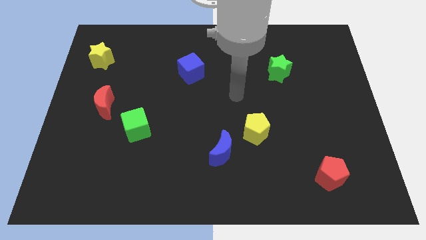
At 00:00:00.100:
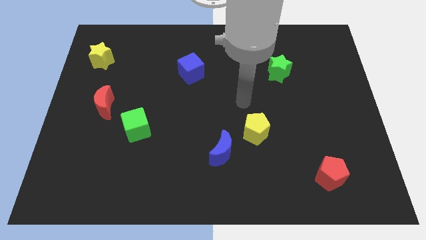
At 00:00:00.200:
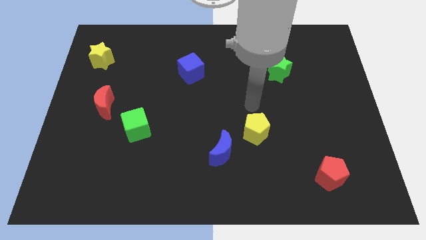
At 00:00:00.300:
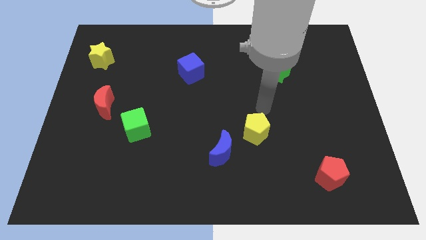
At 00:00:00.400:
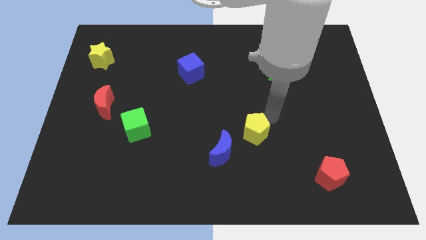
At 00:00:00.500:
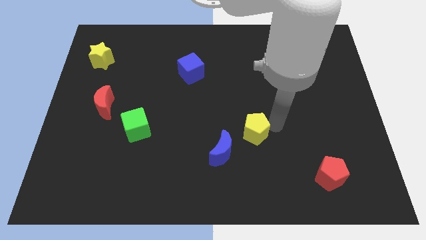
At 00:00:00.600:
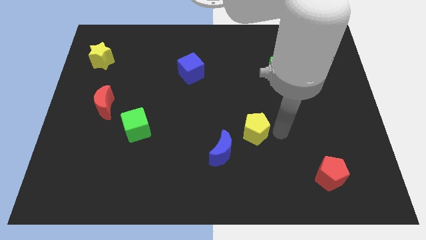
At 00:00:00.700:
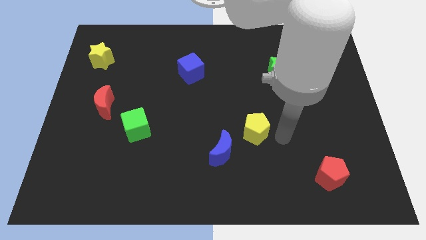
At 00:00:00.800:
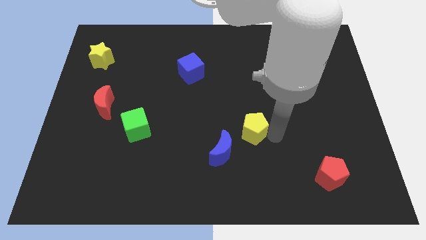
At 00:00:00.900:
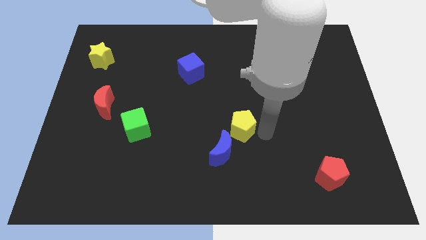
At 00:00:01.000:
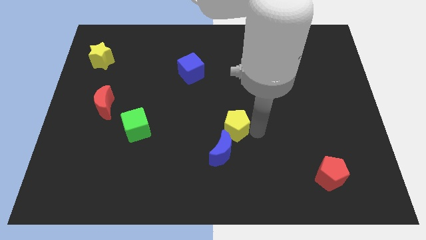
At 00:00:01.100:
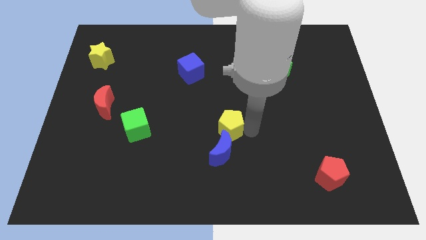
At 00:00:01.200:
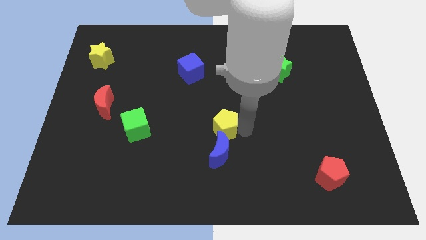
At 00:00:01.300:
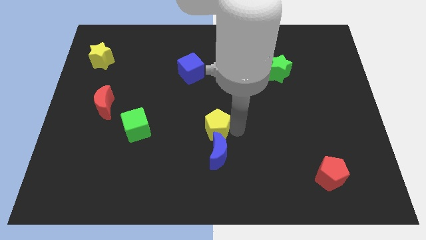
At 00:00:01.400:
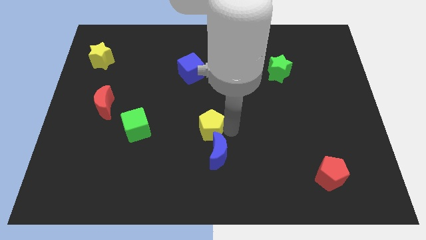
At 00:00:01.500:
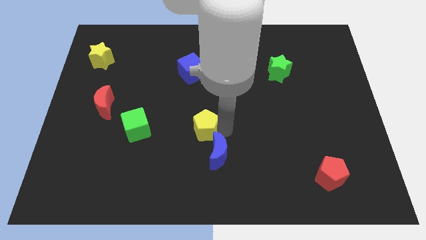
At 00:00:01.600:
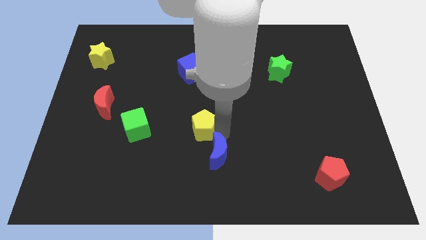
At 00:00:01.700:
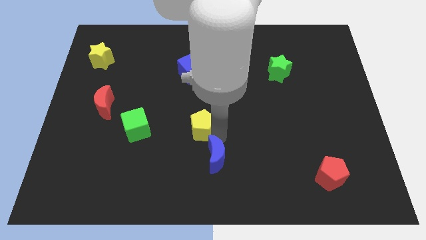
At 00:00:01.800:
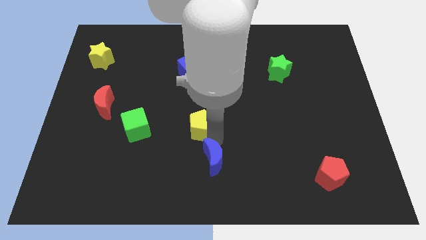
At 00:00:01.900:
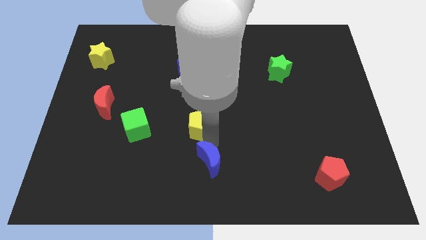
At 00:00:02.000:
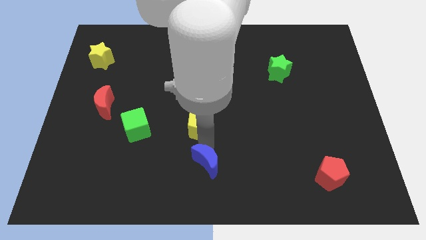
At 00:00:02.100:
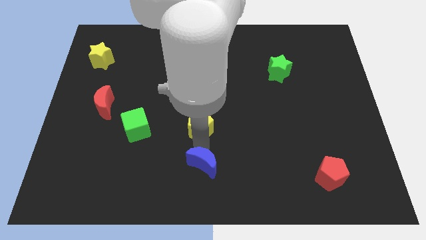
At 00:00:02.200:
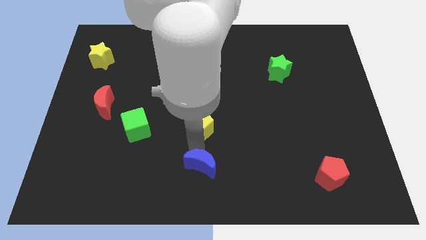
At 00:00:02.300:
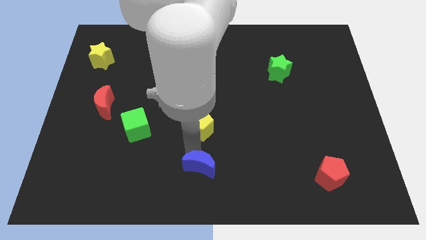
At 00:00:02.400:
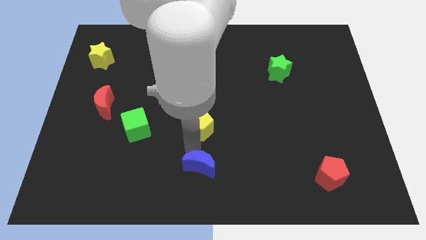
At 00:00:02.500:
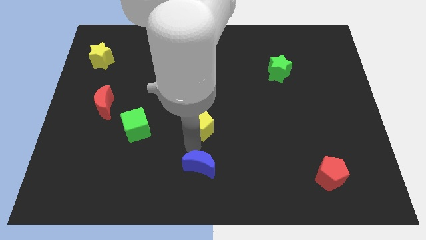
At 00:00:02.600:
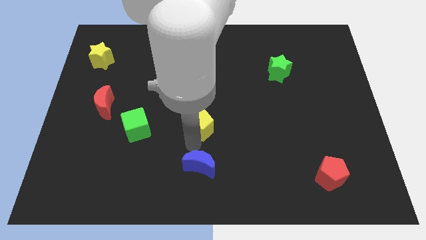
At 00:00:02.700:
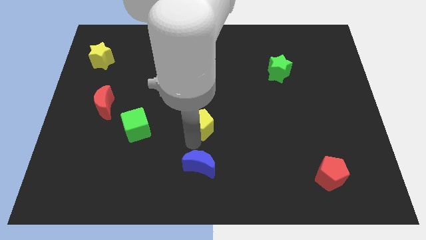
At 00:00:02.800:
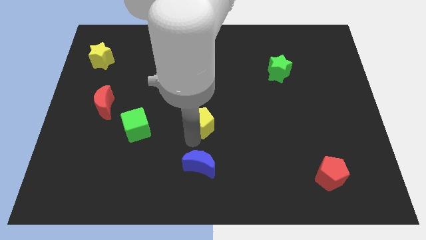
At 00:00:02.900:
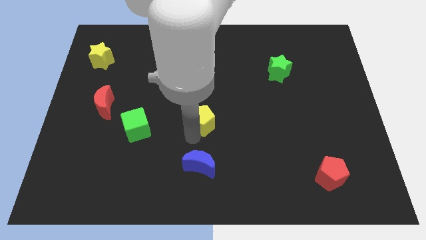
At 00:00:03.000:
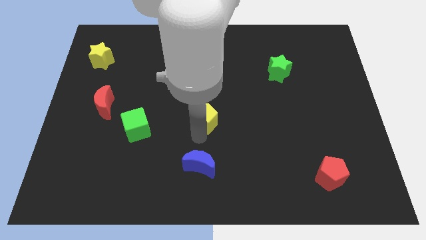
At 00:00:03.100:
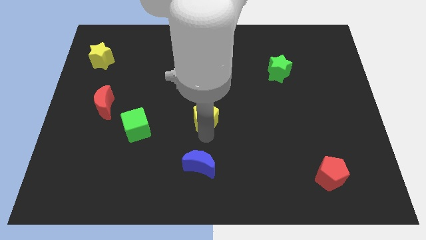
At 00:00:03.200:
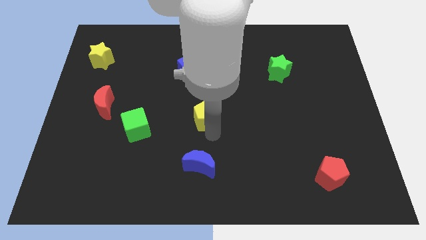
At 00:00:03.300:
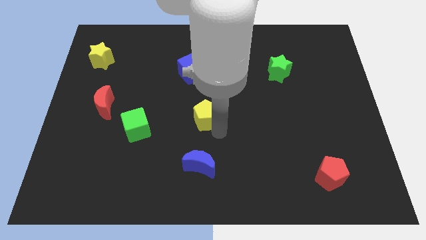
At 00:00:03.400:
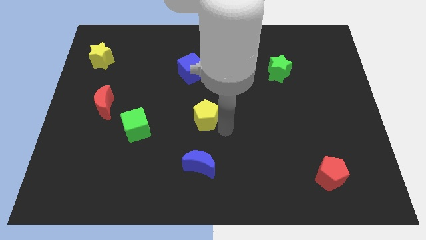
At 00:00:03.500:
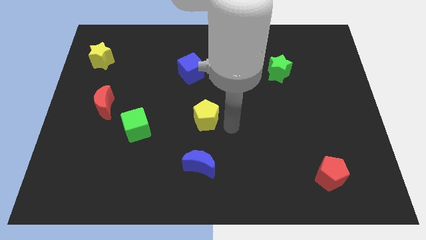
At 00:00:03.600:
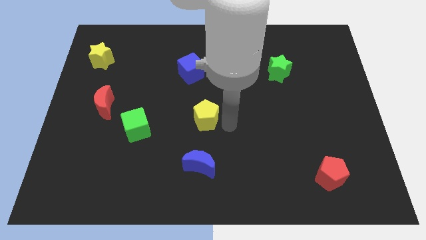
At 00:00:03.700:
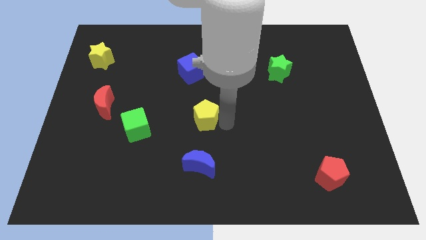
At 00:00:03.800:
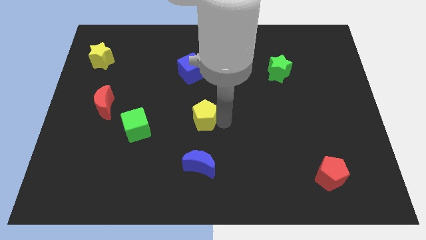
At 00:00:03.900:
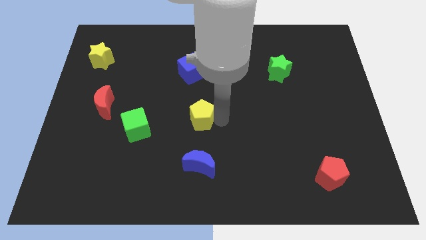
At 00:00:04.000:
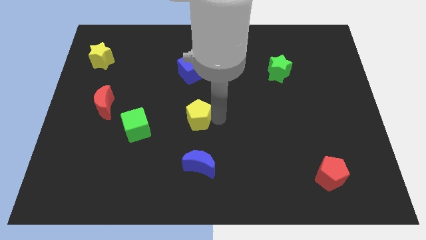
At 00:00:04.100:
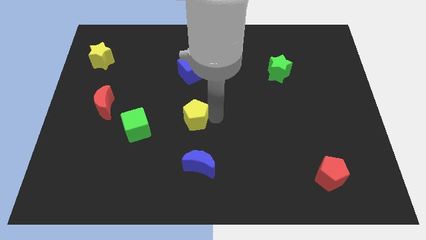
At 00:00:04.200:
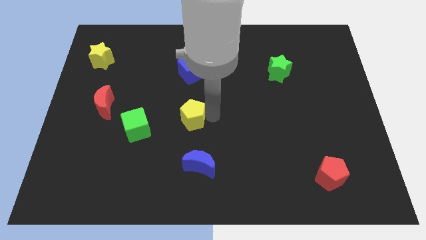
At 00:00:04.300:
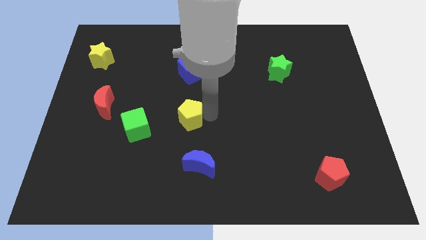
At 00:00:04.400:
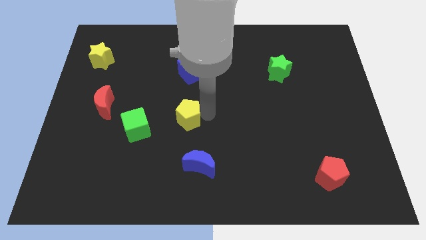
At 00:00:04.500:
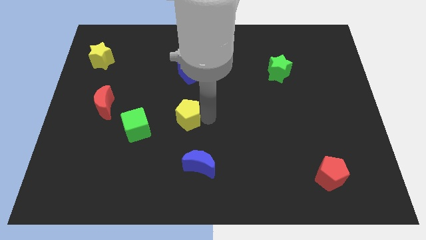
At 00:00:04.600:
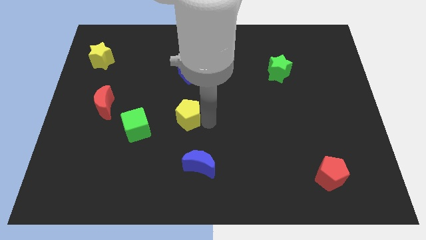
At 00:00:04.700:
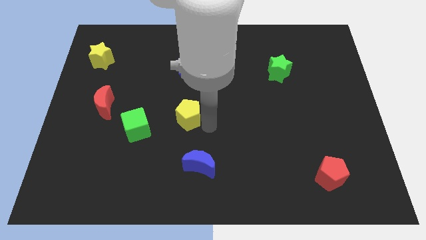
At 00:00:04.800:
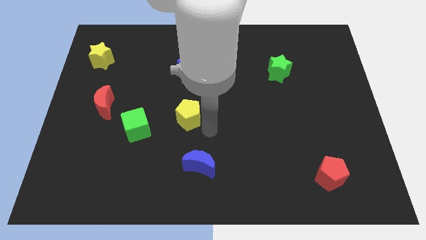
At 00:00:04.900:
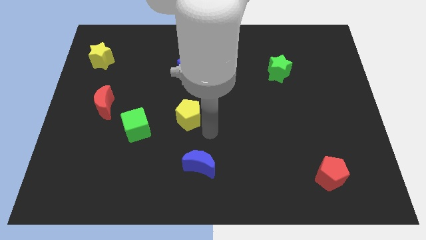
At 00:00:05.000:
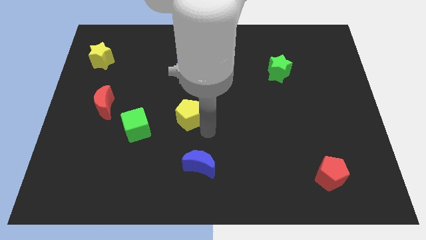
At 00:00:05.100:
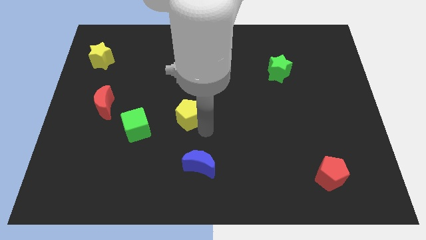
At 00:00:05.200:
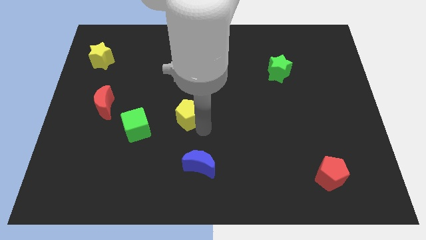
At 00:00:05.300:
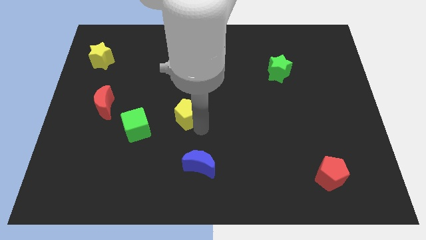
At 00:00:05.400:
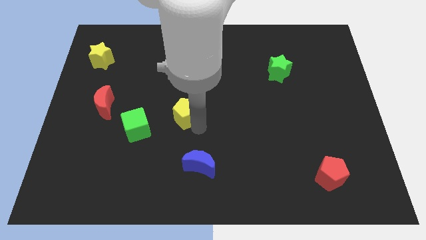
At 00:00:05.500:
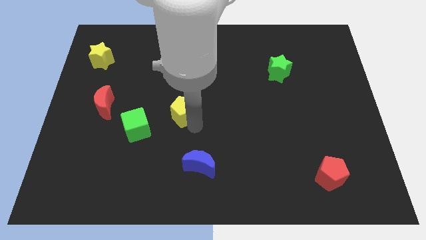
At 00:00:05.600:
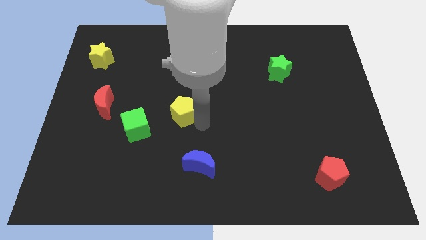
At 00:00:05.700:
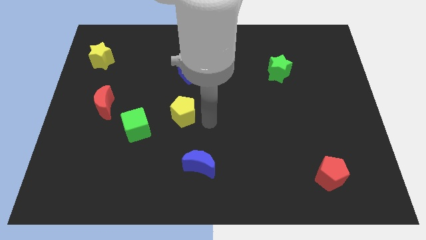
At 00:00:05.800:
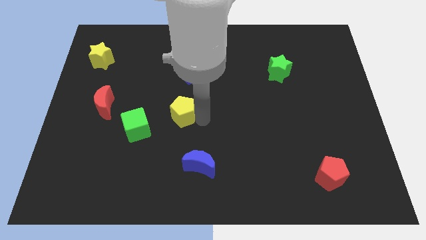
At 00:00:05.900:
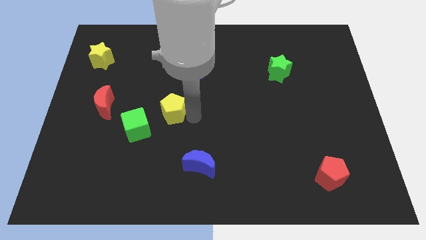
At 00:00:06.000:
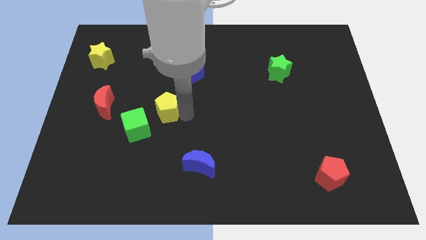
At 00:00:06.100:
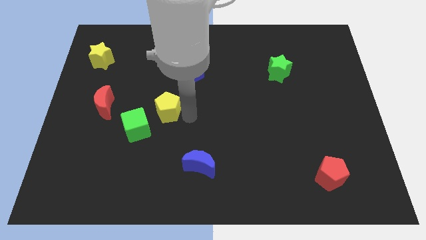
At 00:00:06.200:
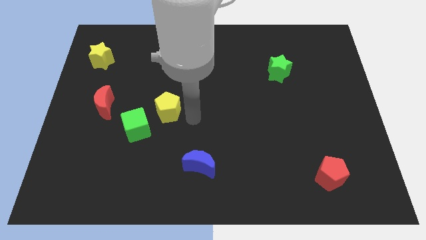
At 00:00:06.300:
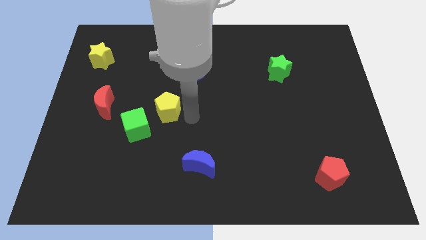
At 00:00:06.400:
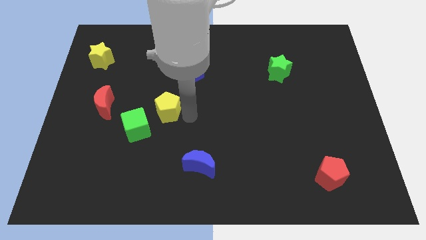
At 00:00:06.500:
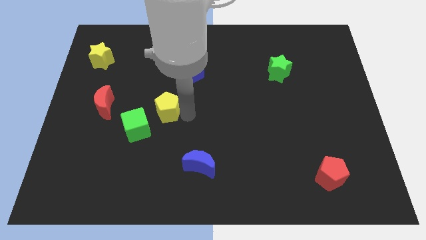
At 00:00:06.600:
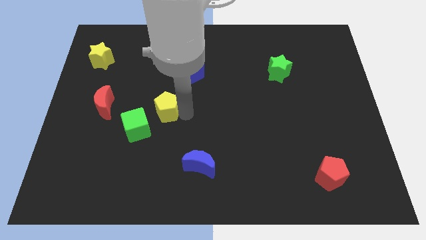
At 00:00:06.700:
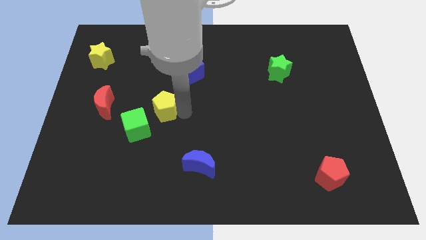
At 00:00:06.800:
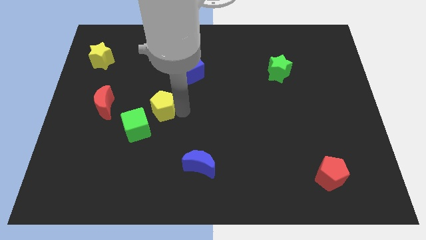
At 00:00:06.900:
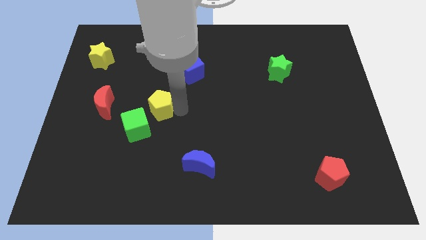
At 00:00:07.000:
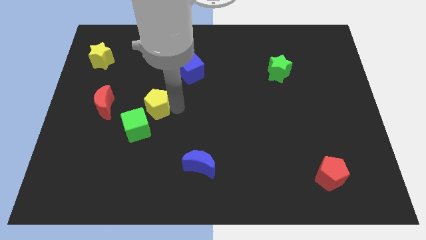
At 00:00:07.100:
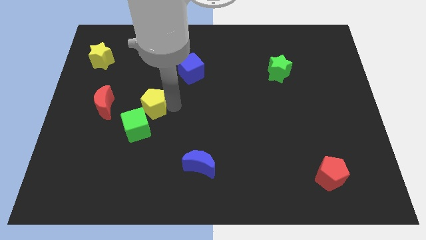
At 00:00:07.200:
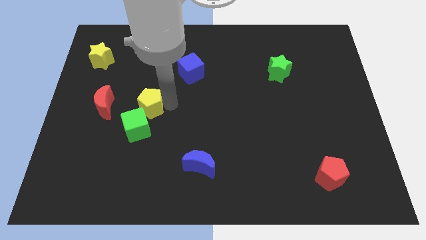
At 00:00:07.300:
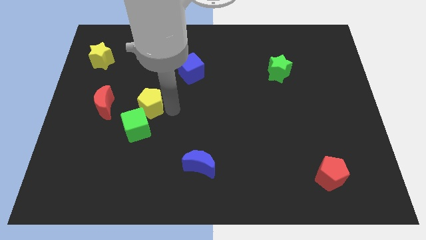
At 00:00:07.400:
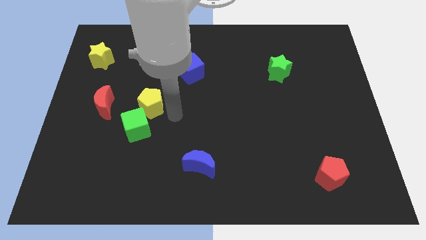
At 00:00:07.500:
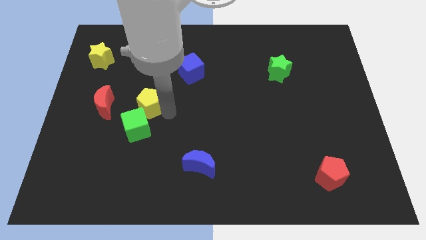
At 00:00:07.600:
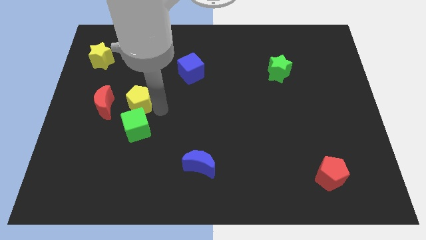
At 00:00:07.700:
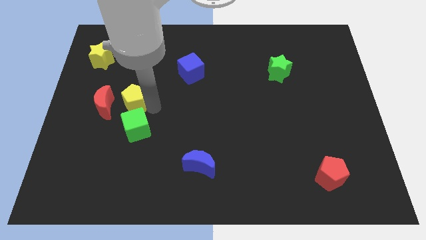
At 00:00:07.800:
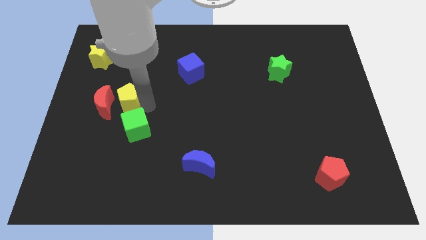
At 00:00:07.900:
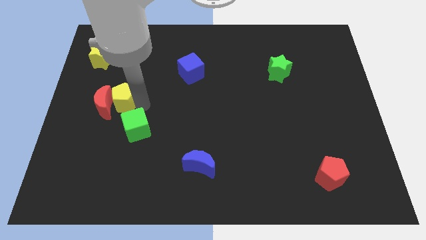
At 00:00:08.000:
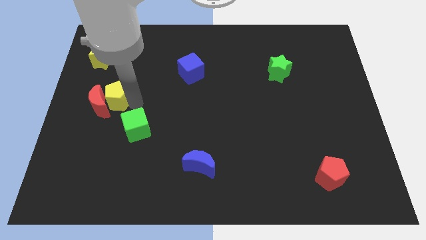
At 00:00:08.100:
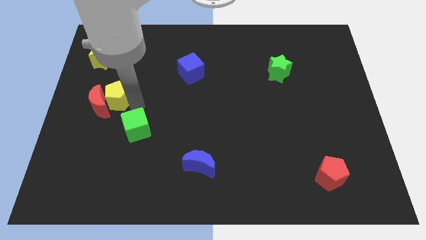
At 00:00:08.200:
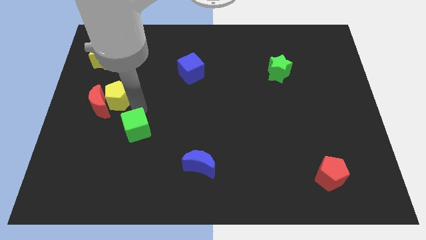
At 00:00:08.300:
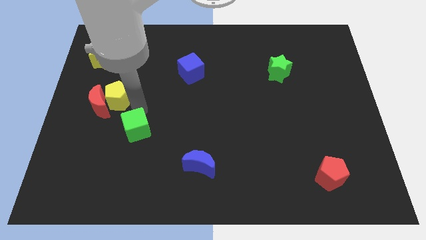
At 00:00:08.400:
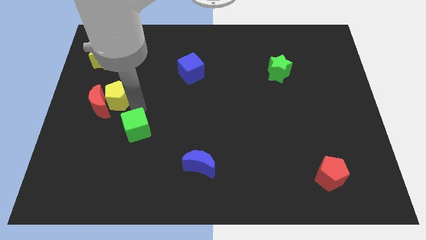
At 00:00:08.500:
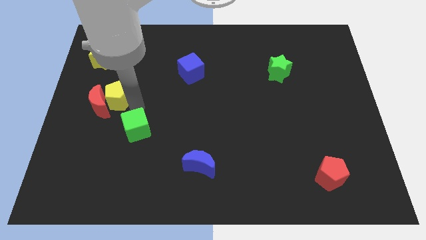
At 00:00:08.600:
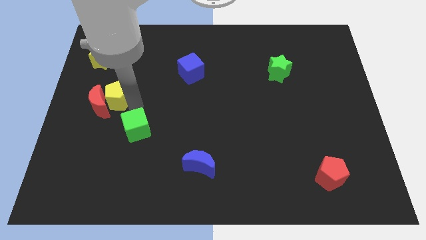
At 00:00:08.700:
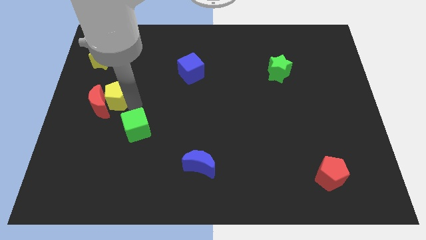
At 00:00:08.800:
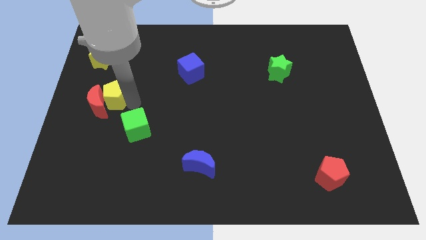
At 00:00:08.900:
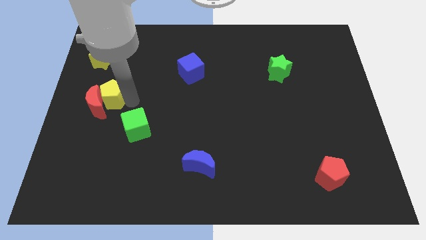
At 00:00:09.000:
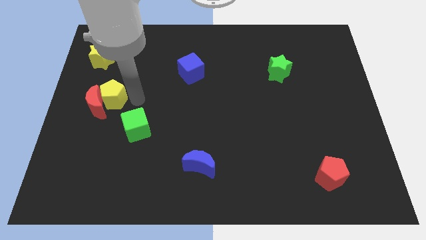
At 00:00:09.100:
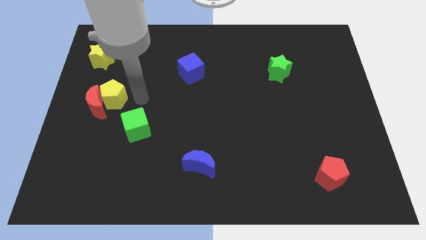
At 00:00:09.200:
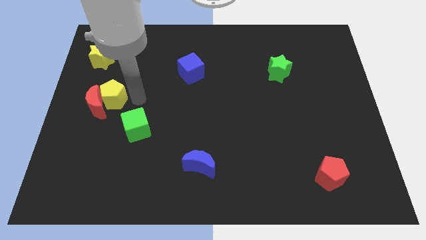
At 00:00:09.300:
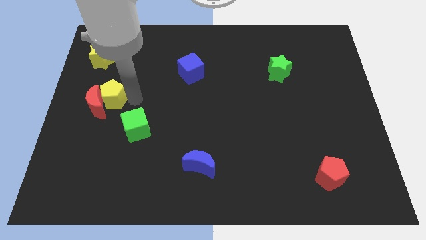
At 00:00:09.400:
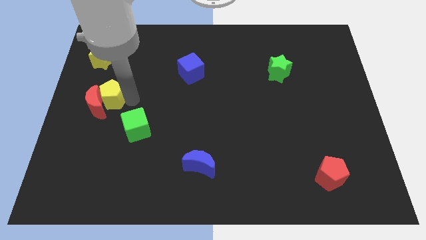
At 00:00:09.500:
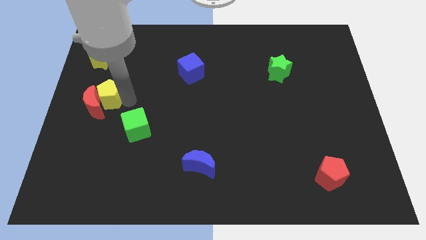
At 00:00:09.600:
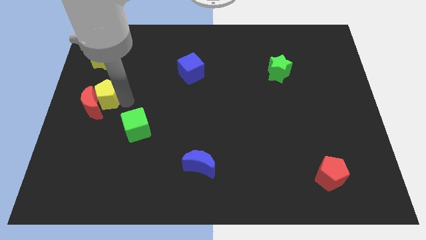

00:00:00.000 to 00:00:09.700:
push the yellow pentagon to the left side of the board
